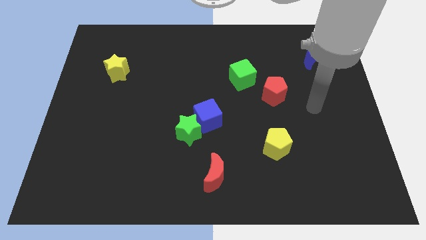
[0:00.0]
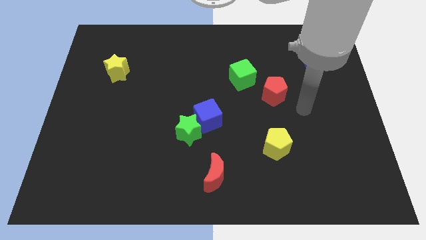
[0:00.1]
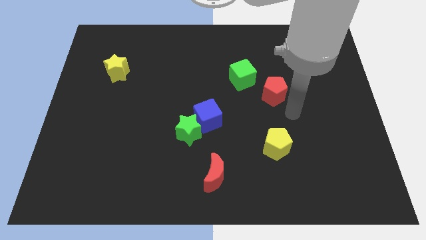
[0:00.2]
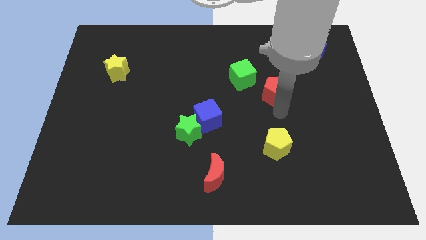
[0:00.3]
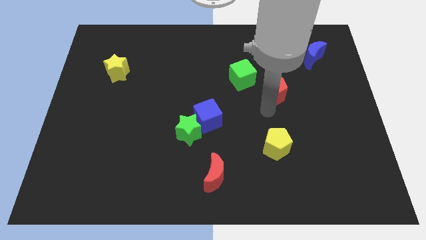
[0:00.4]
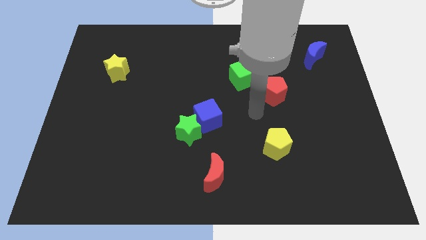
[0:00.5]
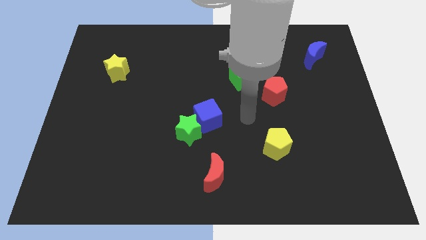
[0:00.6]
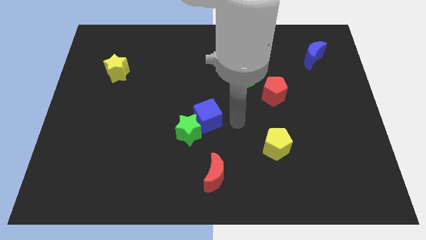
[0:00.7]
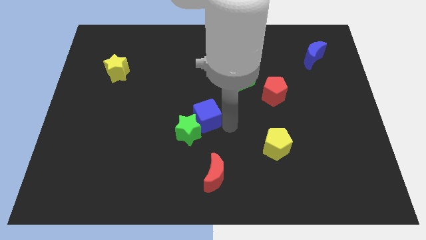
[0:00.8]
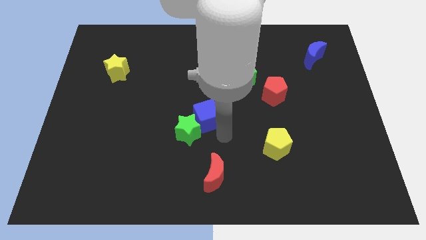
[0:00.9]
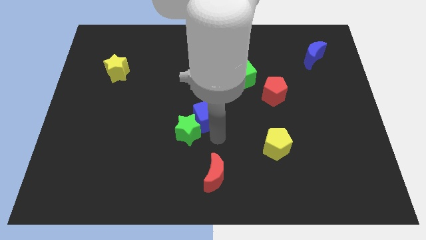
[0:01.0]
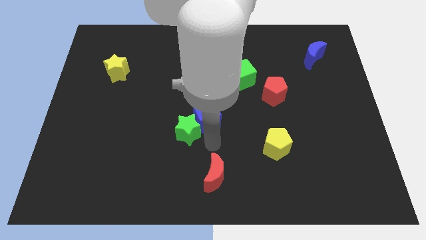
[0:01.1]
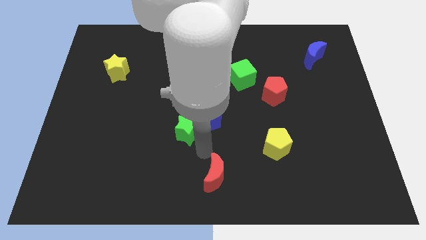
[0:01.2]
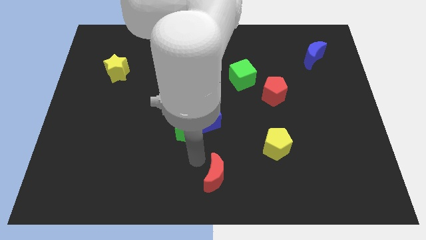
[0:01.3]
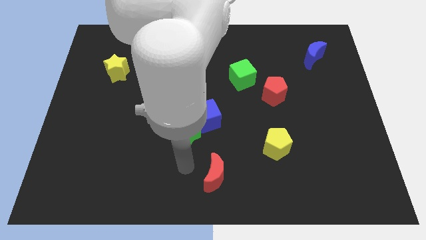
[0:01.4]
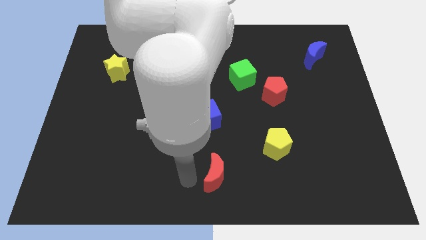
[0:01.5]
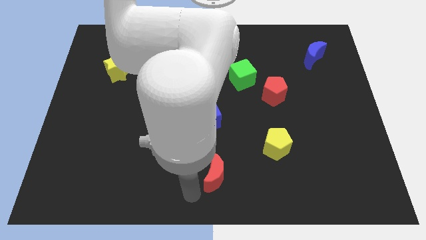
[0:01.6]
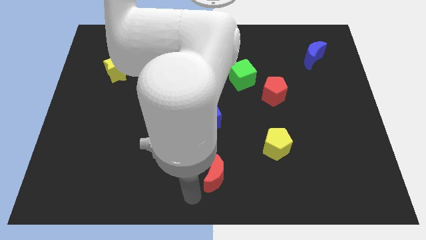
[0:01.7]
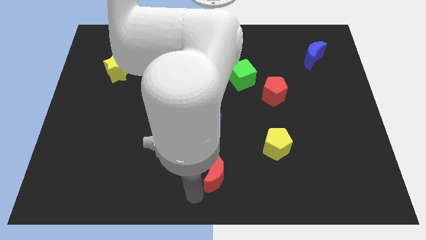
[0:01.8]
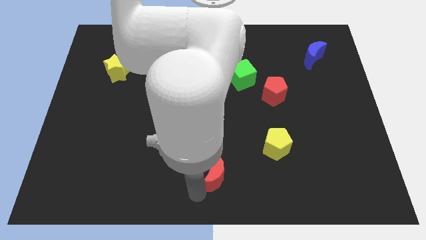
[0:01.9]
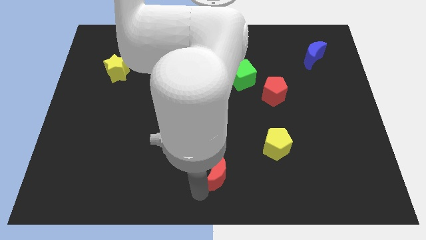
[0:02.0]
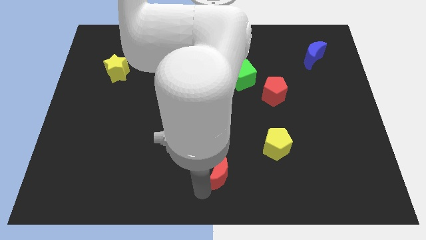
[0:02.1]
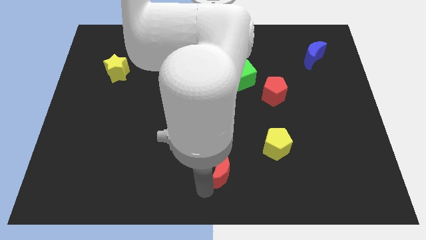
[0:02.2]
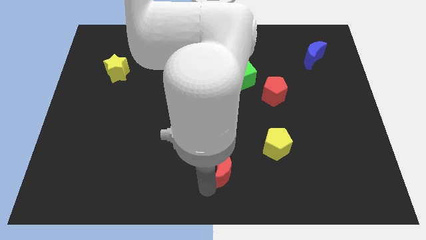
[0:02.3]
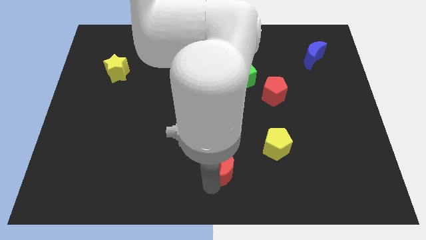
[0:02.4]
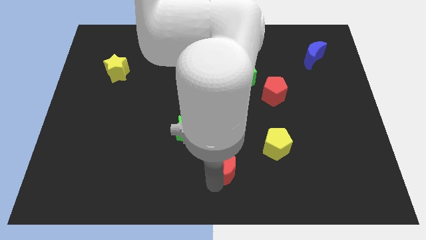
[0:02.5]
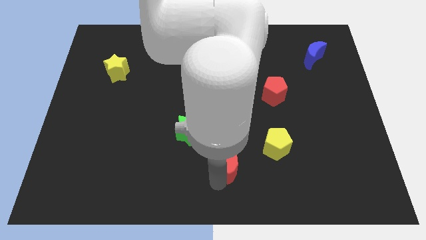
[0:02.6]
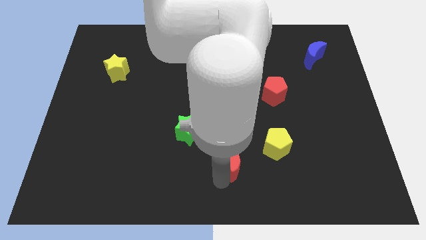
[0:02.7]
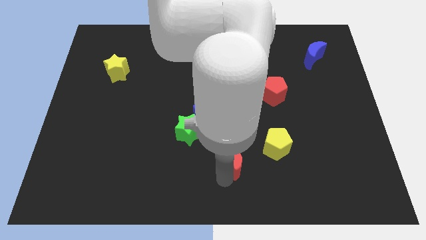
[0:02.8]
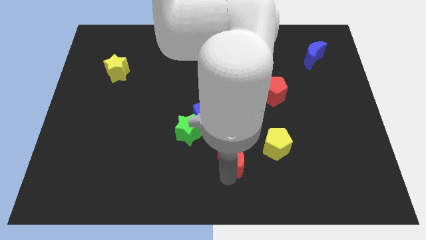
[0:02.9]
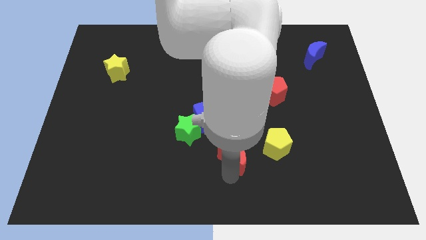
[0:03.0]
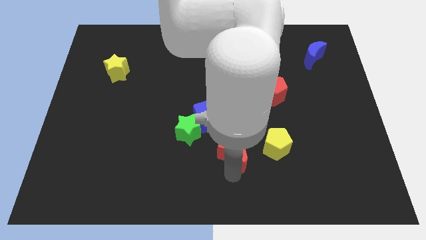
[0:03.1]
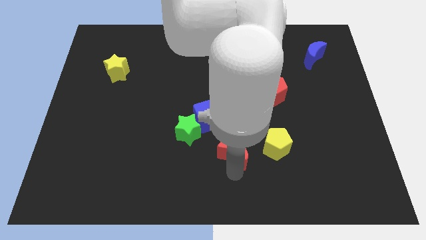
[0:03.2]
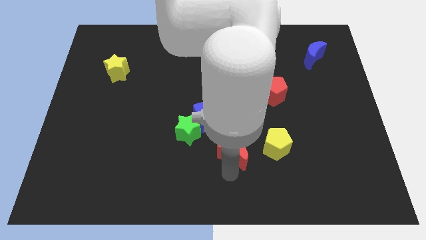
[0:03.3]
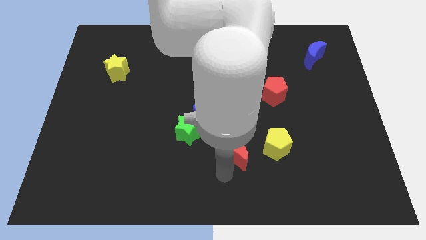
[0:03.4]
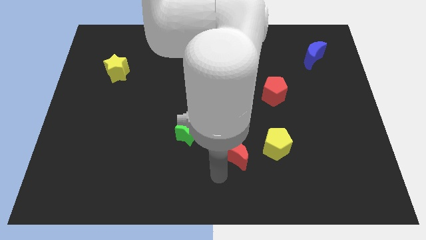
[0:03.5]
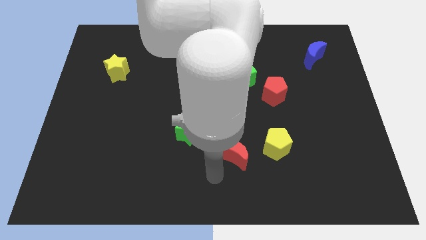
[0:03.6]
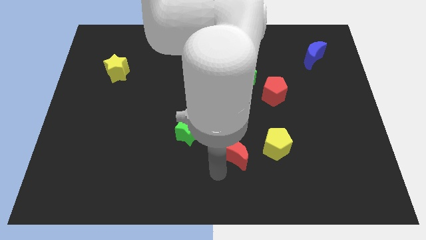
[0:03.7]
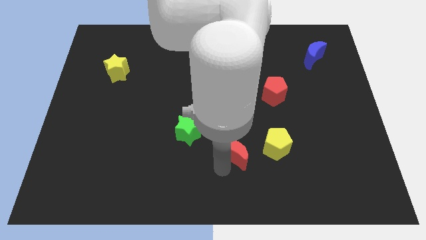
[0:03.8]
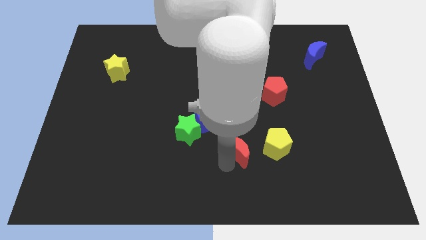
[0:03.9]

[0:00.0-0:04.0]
slightly slide the red moon upwards and right diagonally

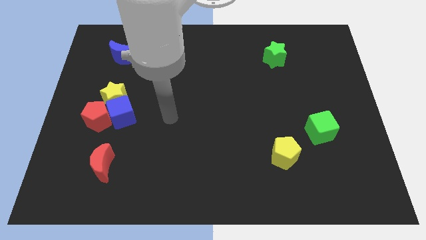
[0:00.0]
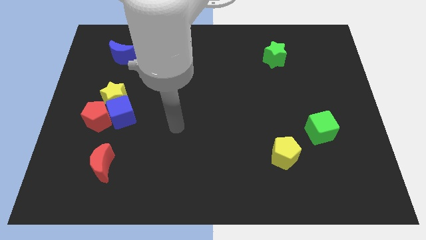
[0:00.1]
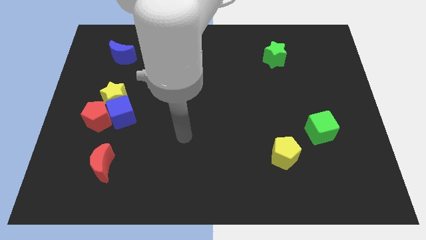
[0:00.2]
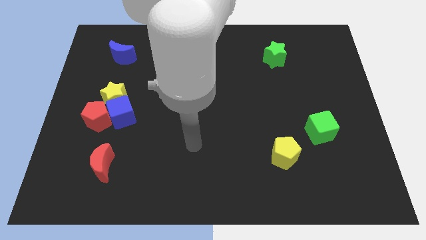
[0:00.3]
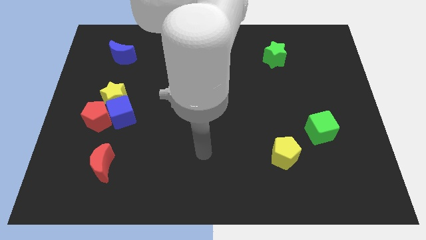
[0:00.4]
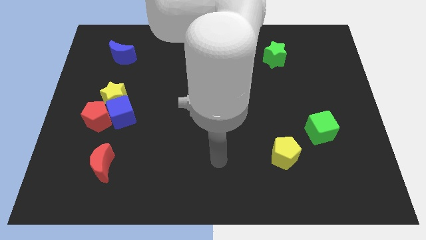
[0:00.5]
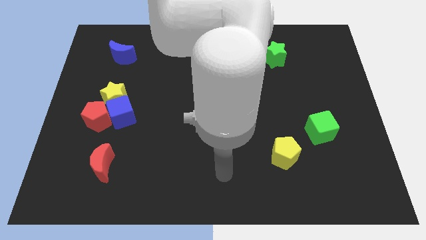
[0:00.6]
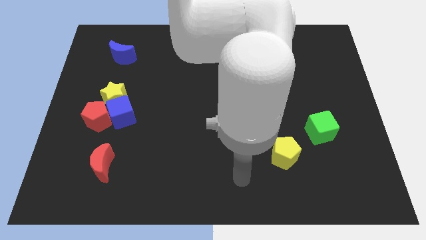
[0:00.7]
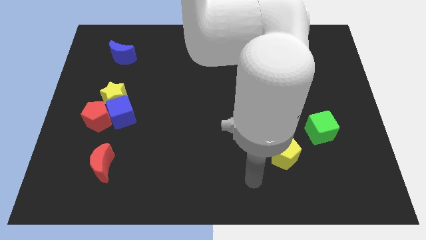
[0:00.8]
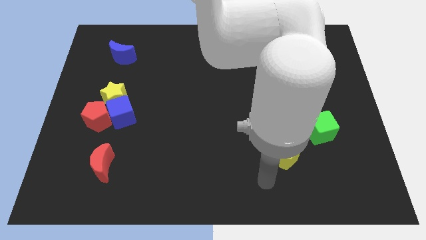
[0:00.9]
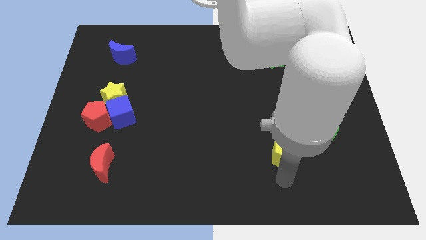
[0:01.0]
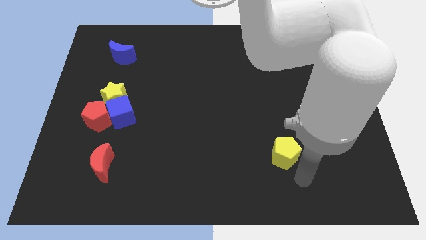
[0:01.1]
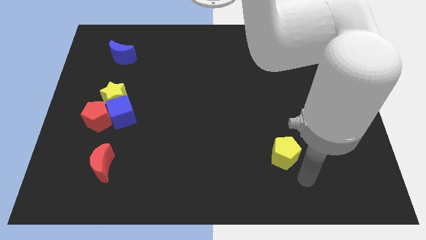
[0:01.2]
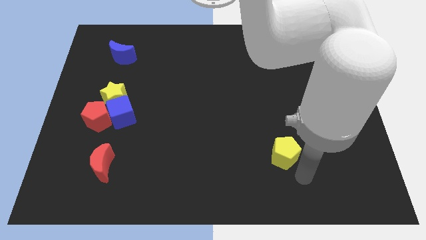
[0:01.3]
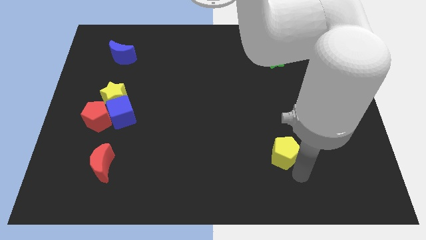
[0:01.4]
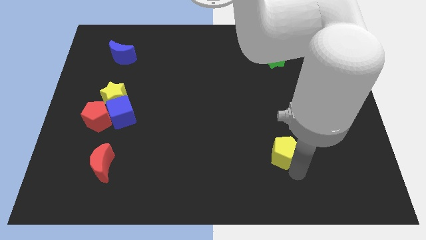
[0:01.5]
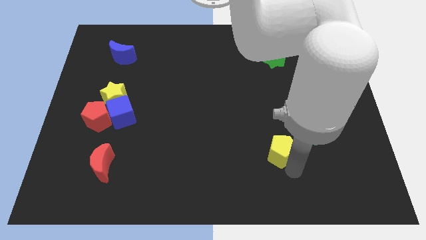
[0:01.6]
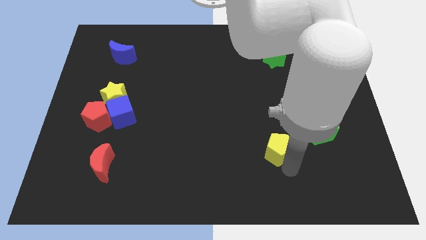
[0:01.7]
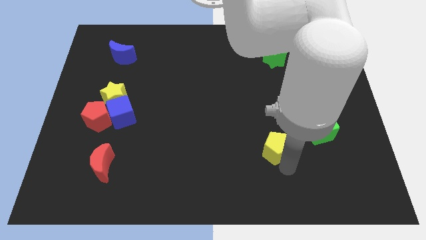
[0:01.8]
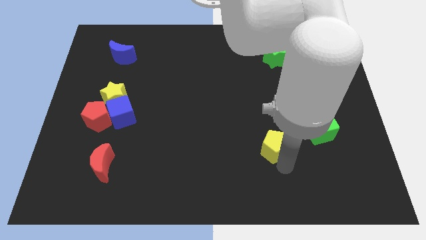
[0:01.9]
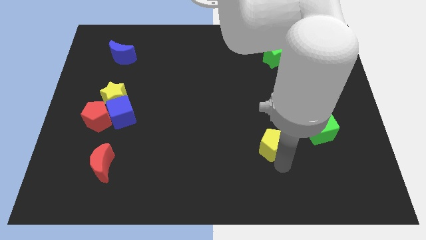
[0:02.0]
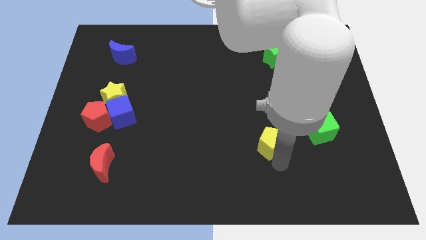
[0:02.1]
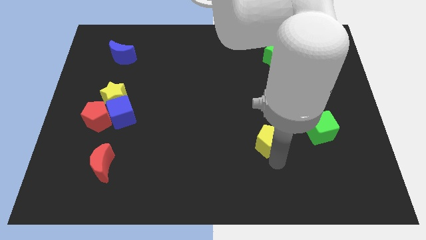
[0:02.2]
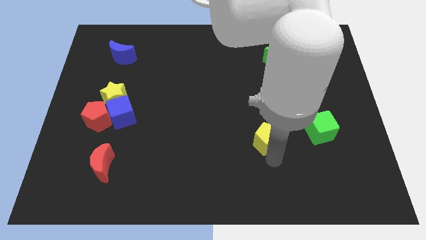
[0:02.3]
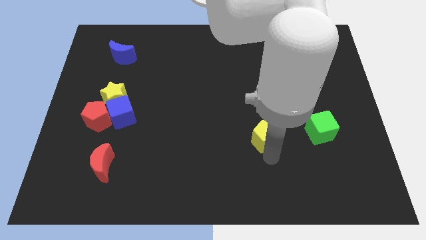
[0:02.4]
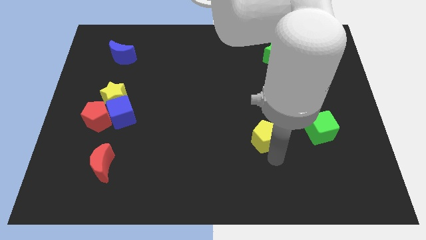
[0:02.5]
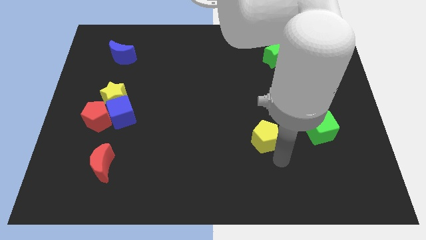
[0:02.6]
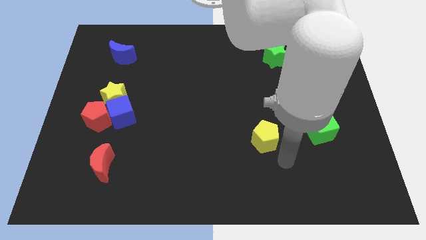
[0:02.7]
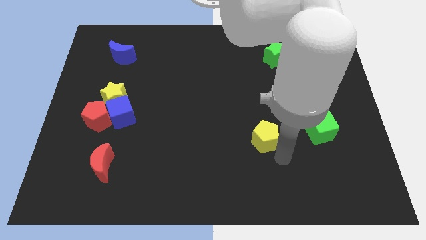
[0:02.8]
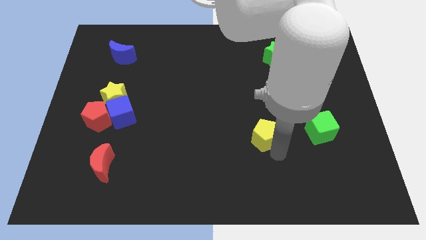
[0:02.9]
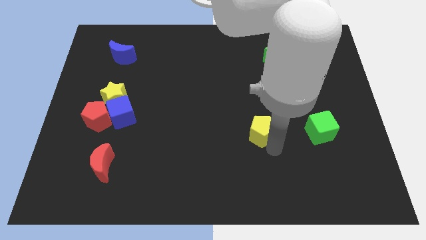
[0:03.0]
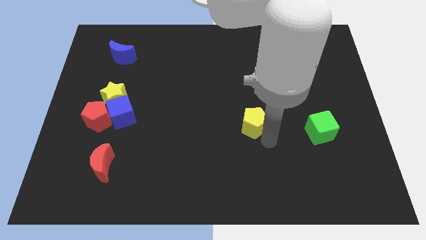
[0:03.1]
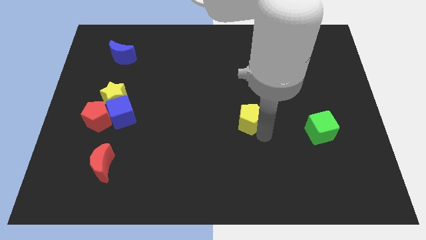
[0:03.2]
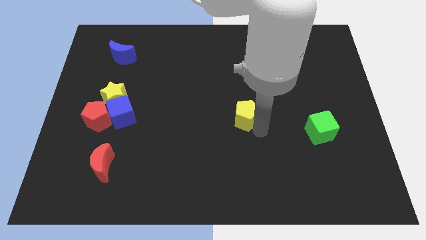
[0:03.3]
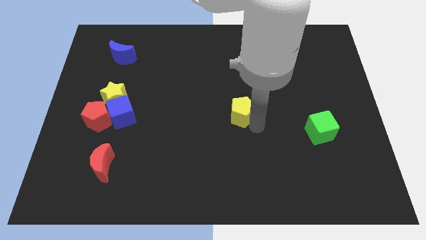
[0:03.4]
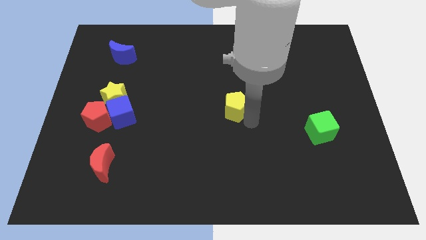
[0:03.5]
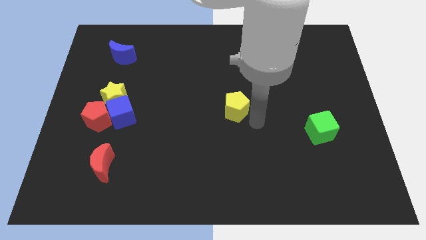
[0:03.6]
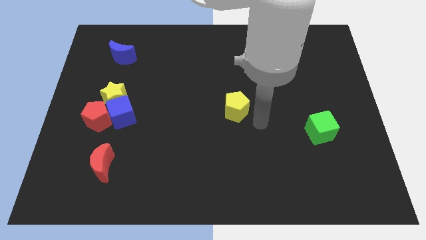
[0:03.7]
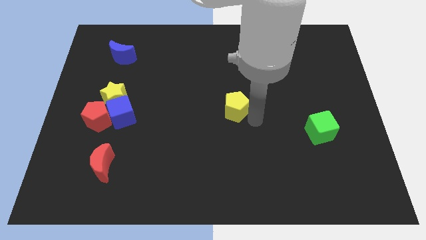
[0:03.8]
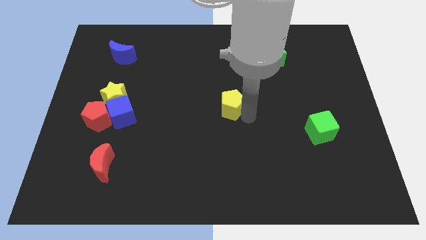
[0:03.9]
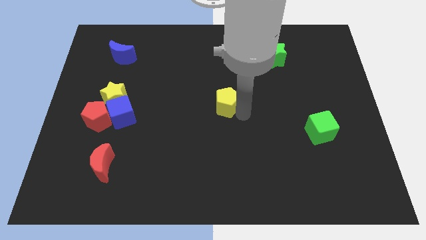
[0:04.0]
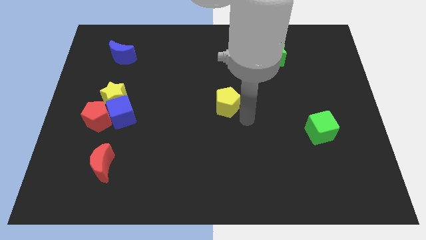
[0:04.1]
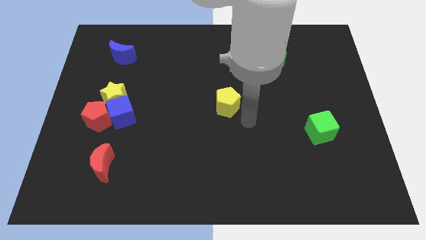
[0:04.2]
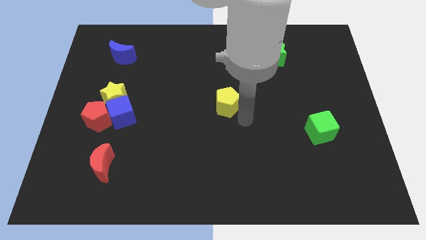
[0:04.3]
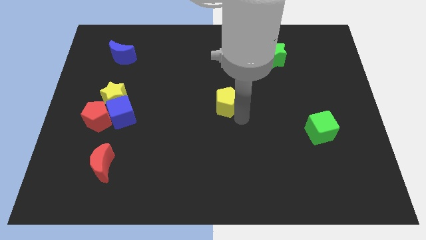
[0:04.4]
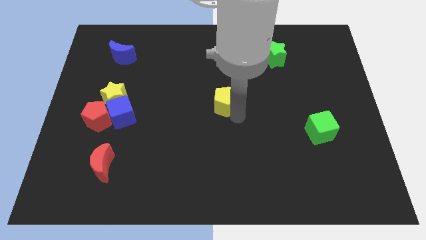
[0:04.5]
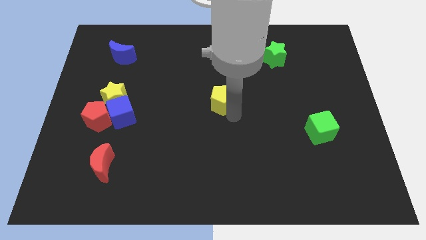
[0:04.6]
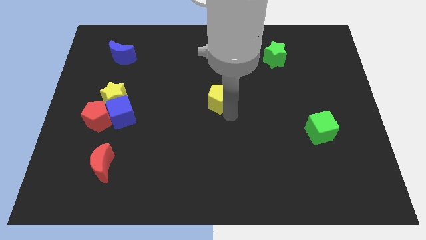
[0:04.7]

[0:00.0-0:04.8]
push the yellow pentagon up and left
